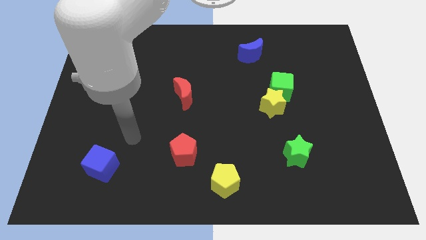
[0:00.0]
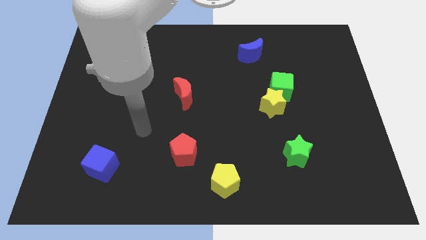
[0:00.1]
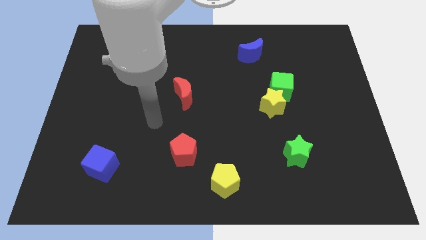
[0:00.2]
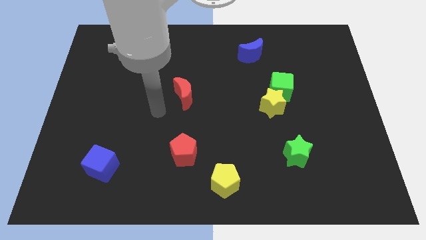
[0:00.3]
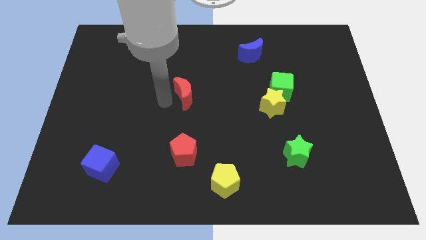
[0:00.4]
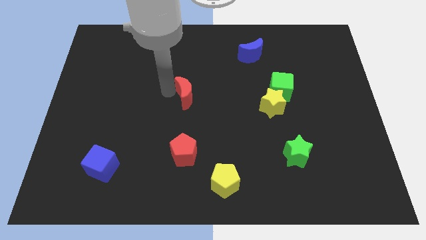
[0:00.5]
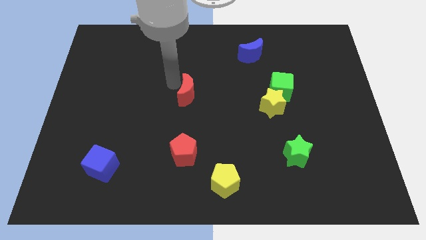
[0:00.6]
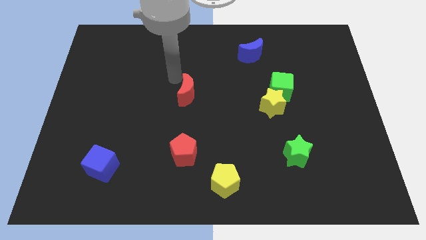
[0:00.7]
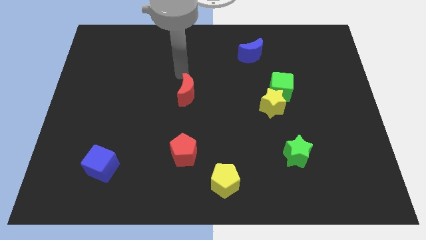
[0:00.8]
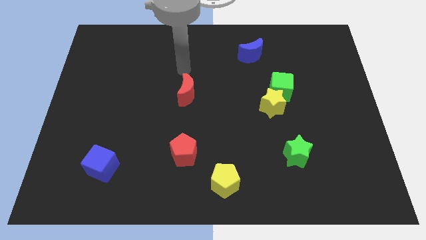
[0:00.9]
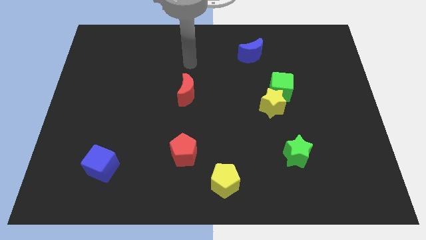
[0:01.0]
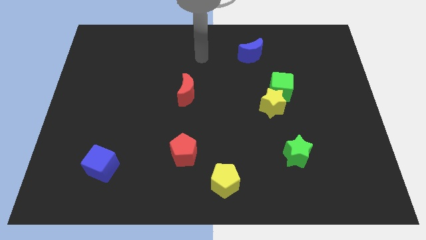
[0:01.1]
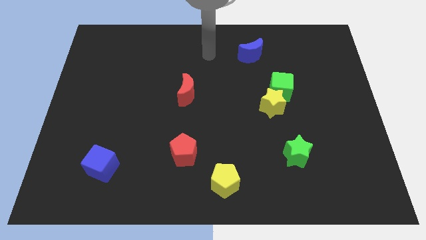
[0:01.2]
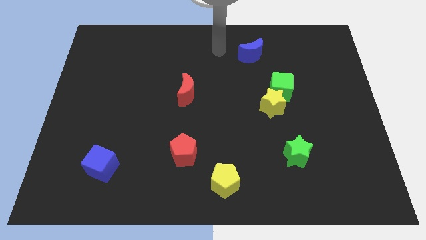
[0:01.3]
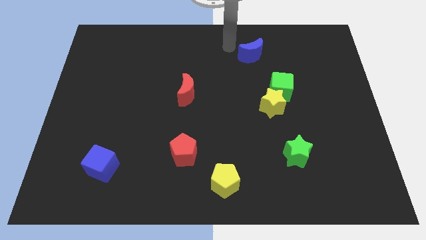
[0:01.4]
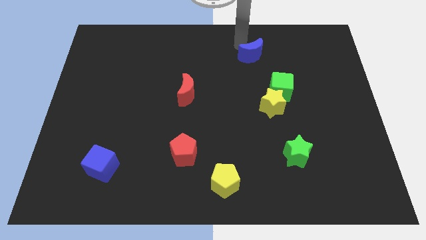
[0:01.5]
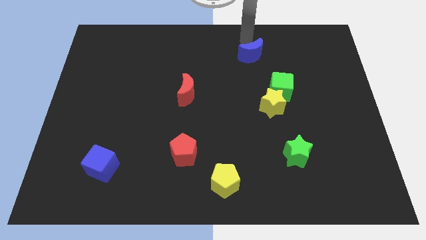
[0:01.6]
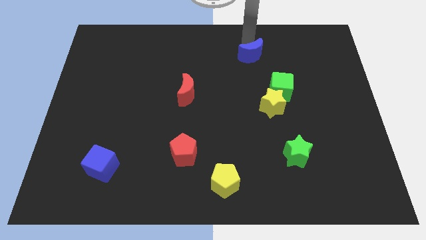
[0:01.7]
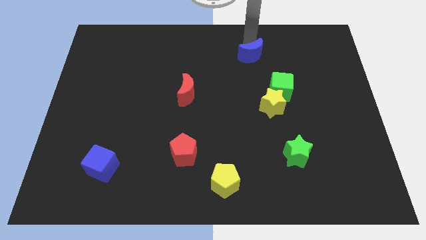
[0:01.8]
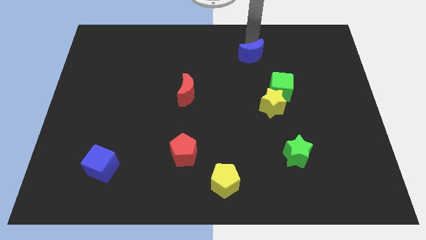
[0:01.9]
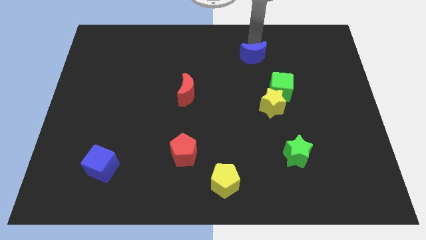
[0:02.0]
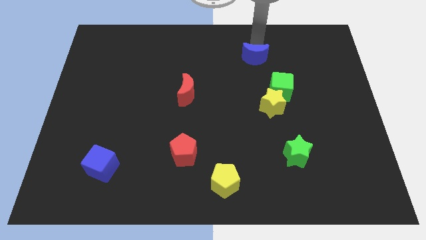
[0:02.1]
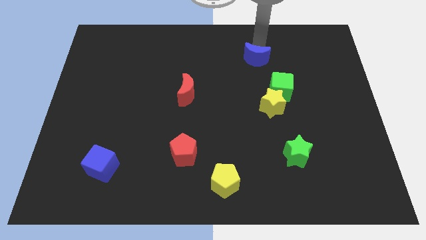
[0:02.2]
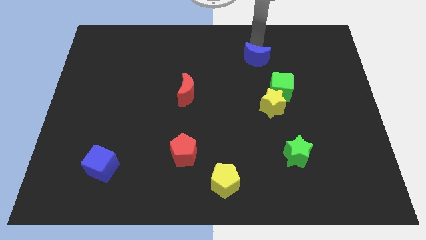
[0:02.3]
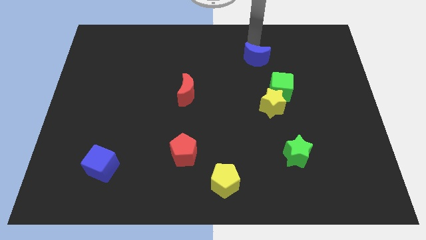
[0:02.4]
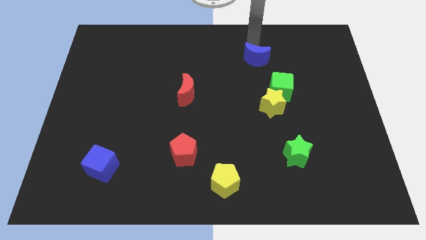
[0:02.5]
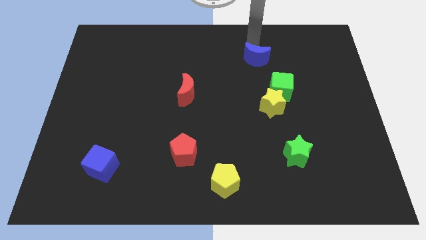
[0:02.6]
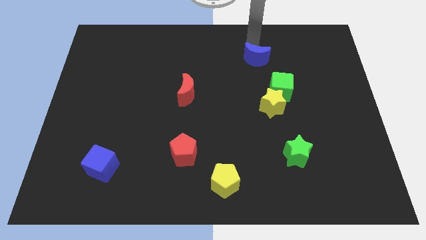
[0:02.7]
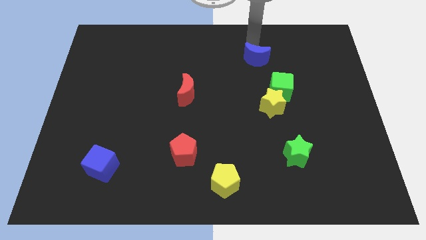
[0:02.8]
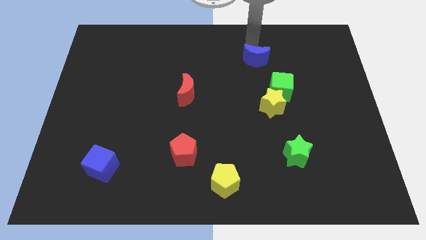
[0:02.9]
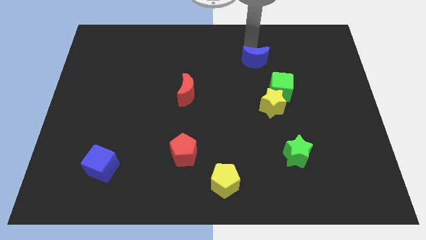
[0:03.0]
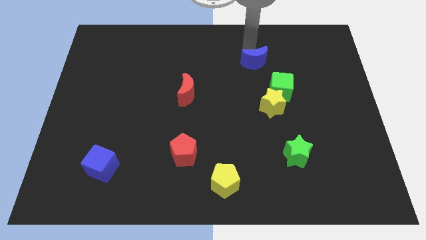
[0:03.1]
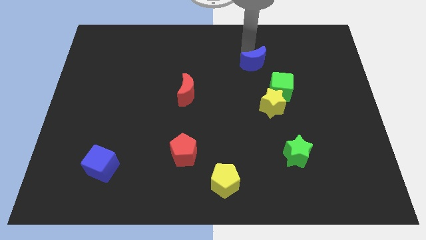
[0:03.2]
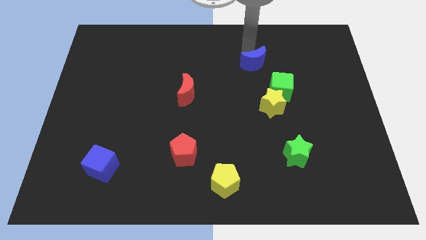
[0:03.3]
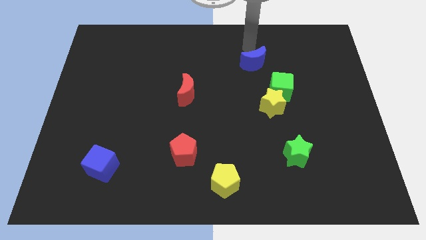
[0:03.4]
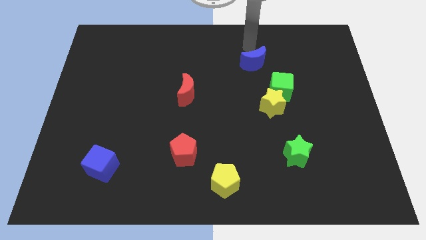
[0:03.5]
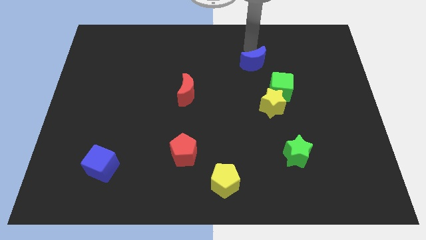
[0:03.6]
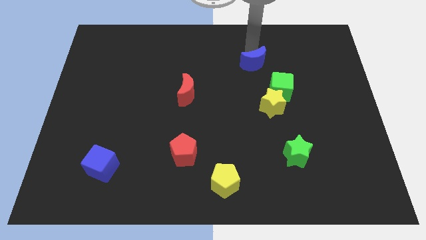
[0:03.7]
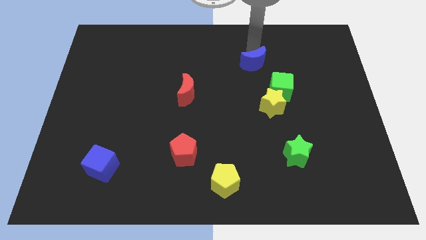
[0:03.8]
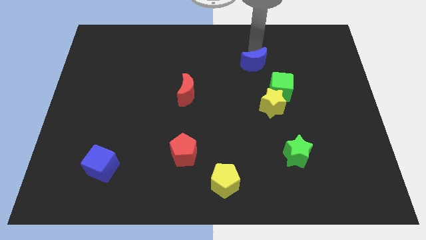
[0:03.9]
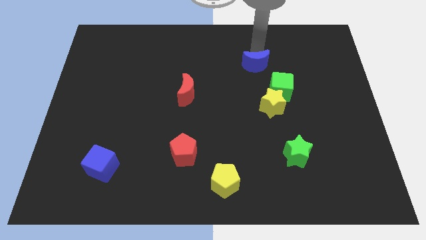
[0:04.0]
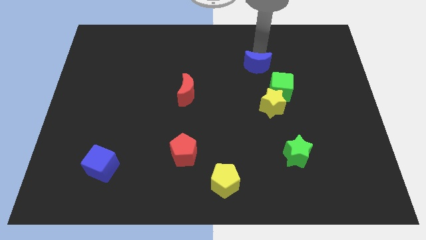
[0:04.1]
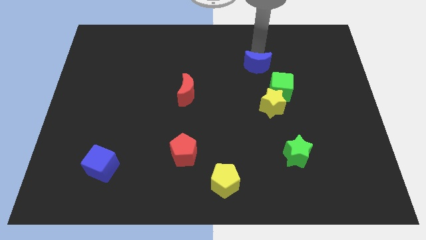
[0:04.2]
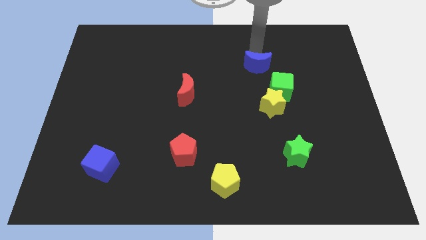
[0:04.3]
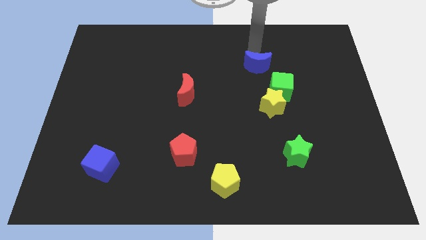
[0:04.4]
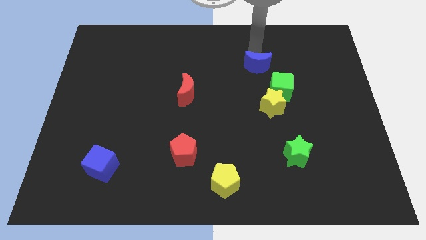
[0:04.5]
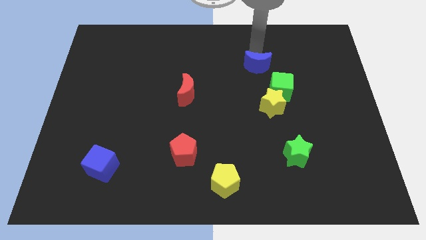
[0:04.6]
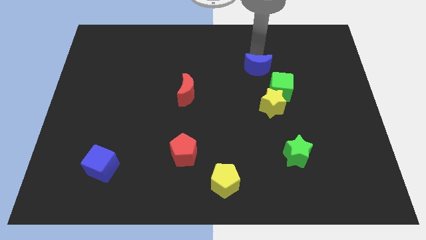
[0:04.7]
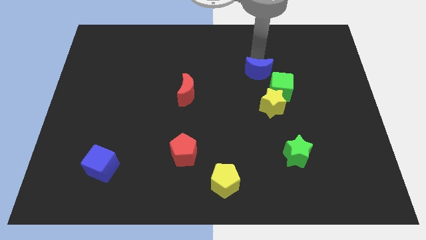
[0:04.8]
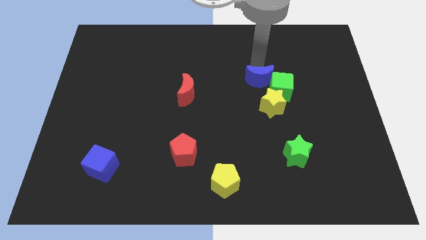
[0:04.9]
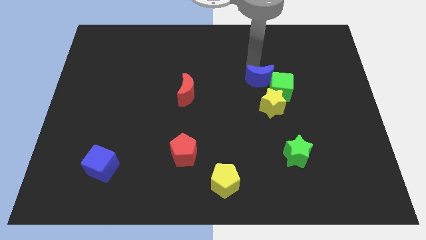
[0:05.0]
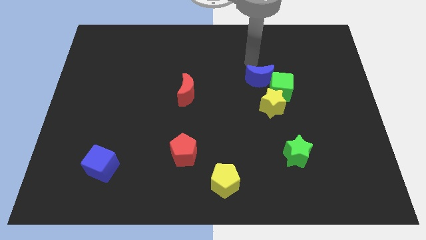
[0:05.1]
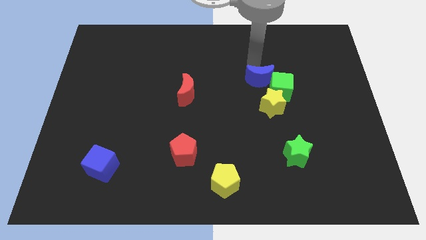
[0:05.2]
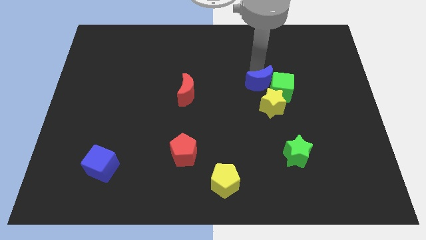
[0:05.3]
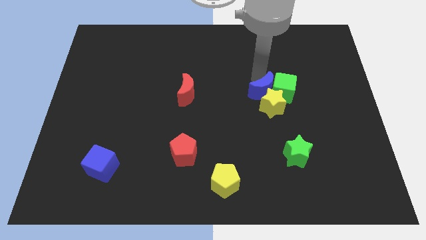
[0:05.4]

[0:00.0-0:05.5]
move the blue moon to the yellow star

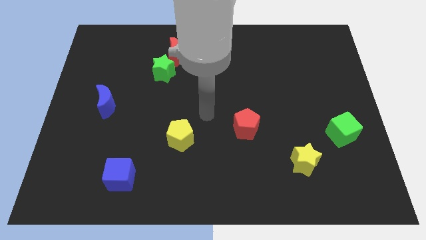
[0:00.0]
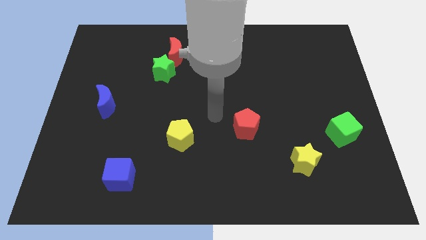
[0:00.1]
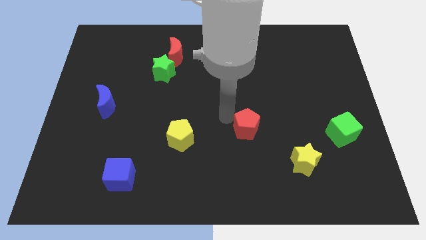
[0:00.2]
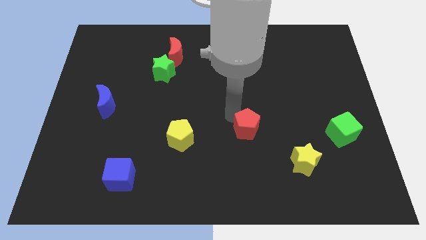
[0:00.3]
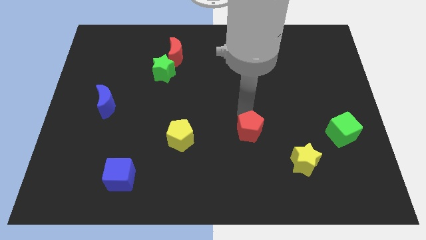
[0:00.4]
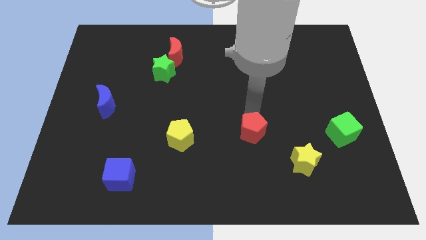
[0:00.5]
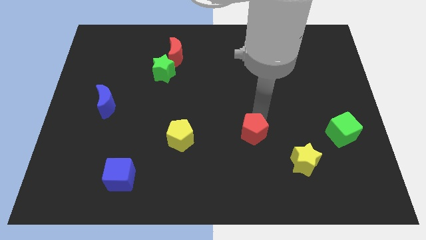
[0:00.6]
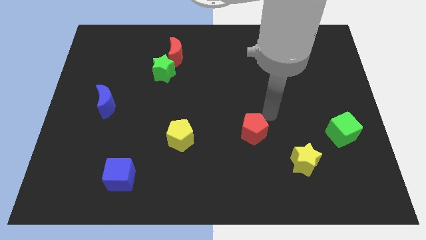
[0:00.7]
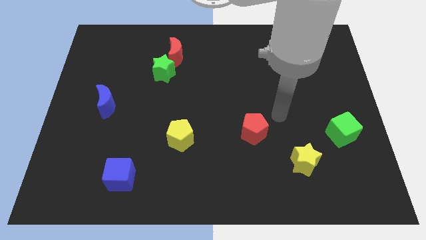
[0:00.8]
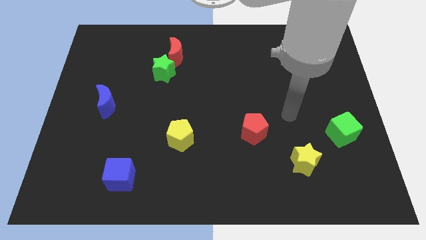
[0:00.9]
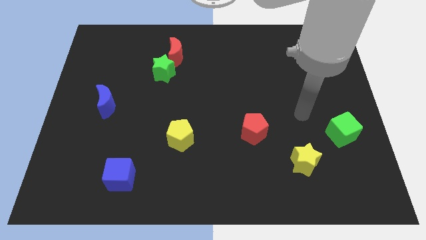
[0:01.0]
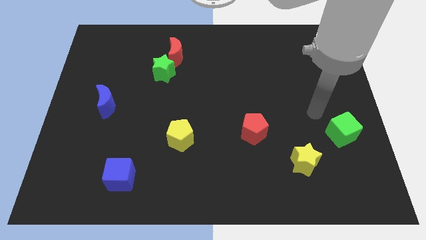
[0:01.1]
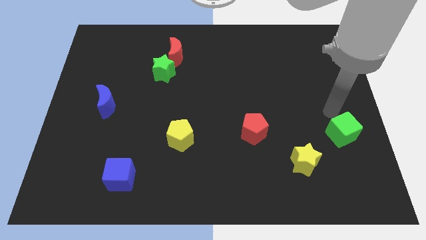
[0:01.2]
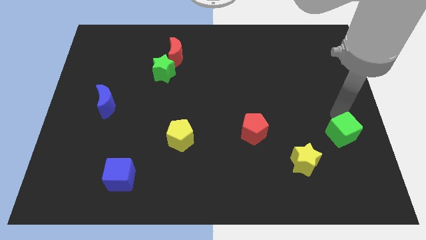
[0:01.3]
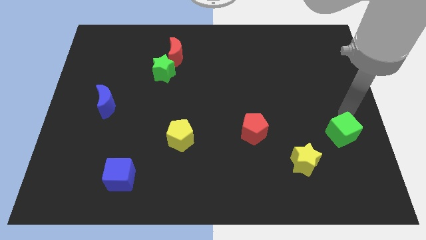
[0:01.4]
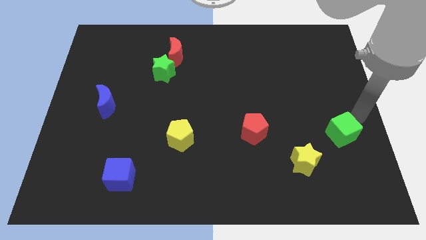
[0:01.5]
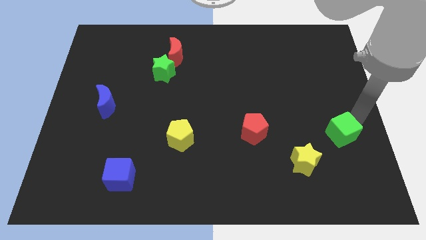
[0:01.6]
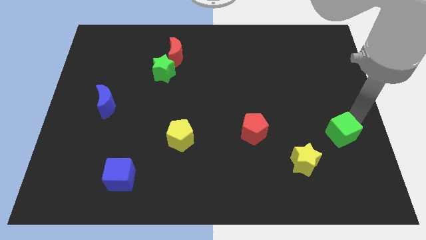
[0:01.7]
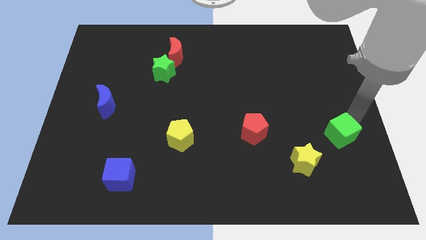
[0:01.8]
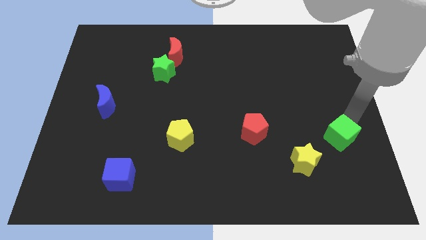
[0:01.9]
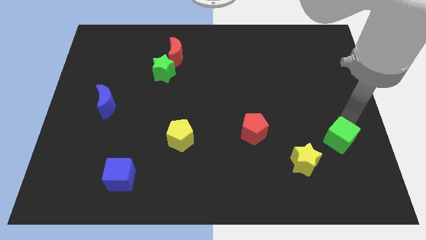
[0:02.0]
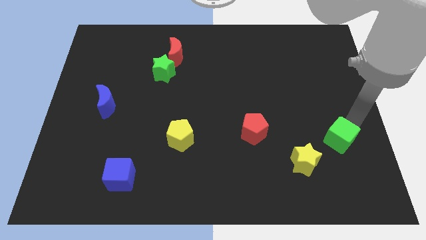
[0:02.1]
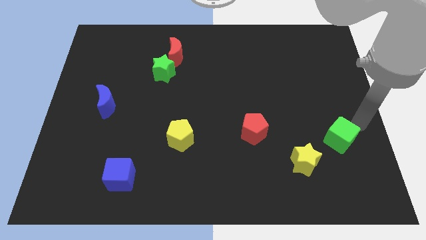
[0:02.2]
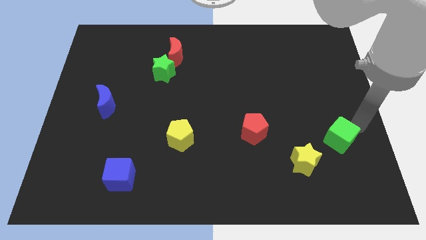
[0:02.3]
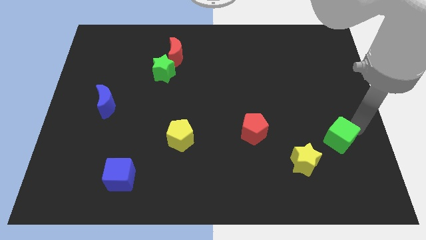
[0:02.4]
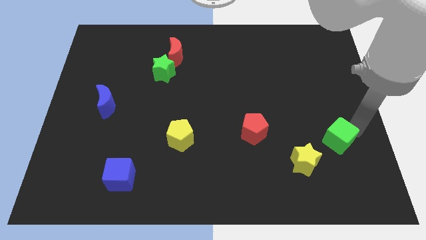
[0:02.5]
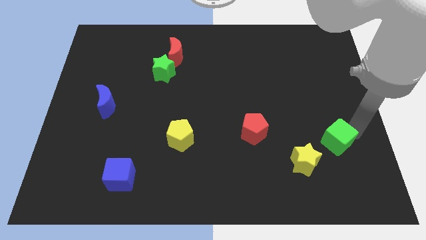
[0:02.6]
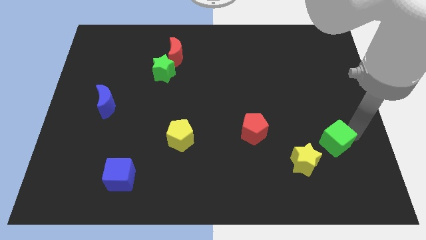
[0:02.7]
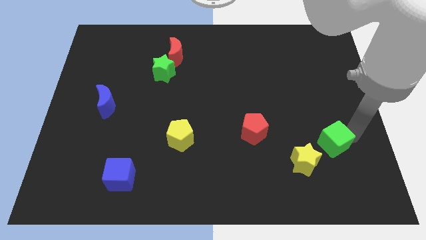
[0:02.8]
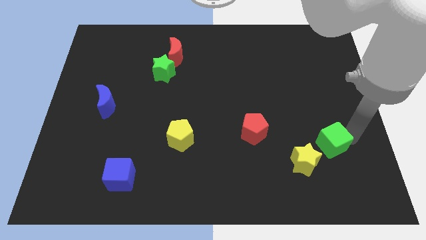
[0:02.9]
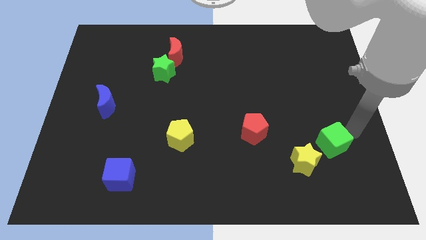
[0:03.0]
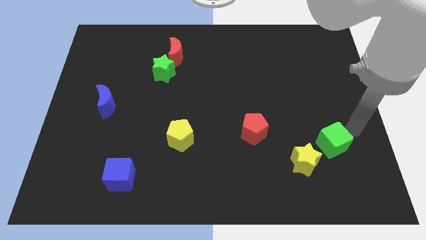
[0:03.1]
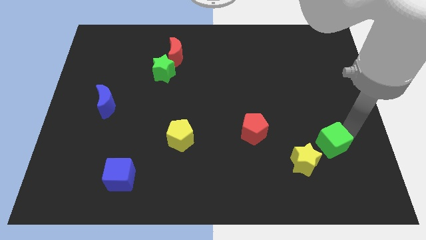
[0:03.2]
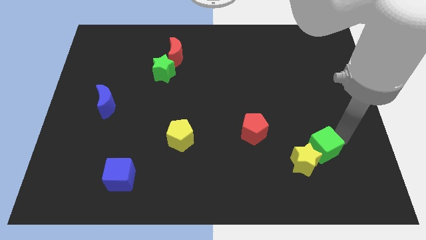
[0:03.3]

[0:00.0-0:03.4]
put the green cube close to the yellow star
